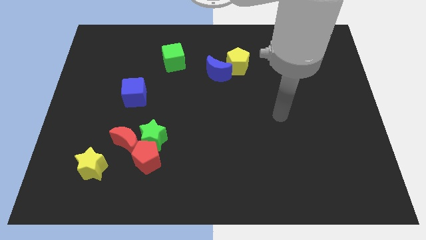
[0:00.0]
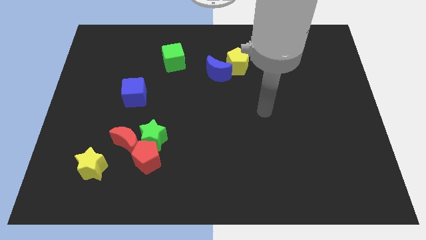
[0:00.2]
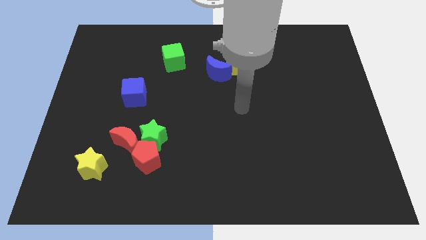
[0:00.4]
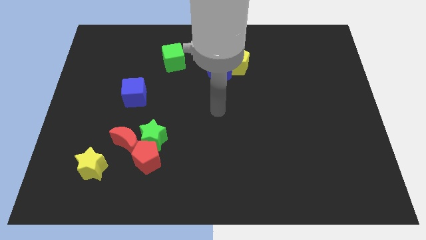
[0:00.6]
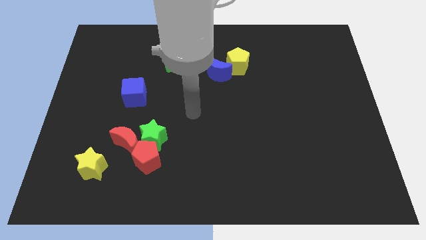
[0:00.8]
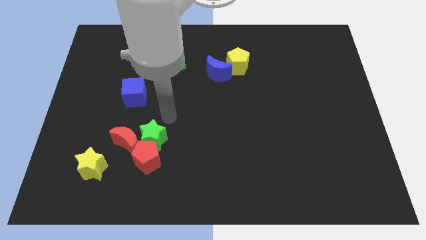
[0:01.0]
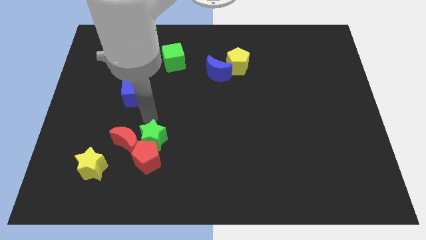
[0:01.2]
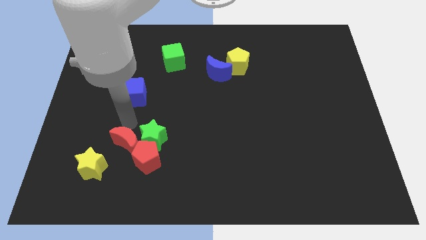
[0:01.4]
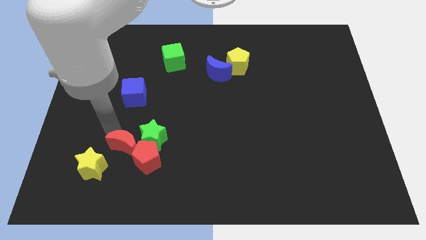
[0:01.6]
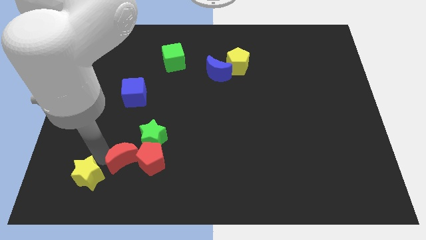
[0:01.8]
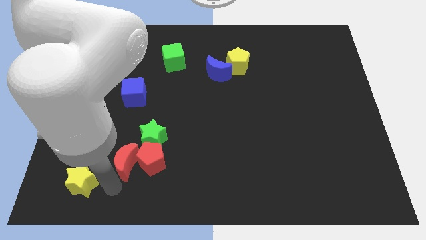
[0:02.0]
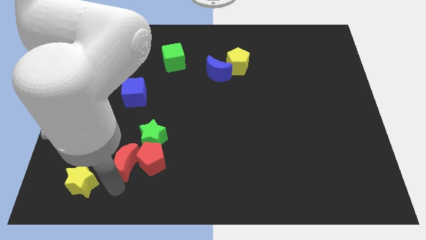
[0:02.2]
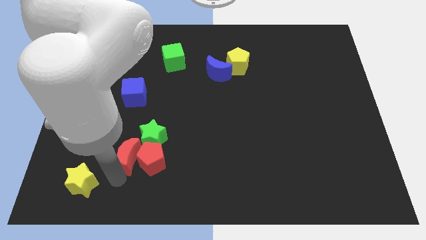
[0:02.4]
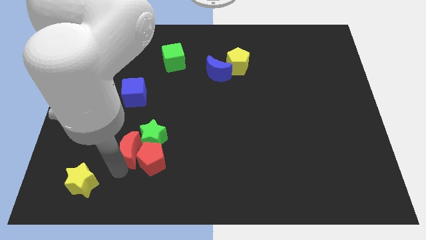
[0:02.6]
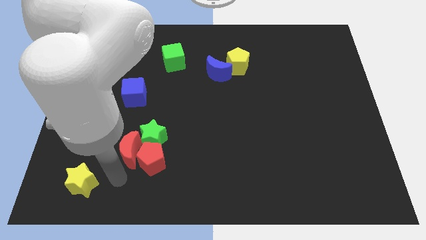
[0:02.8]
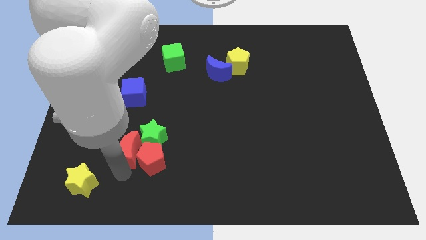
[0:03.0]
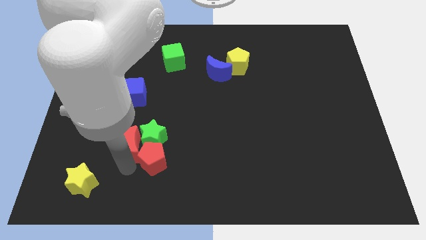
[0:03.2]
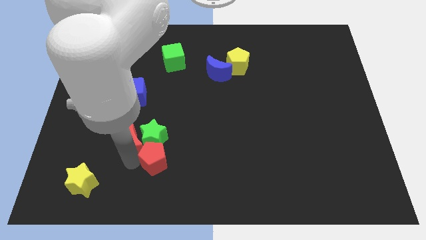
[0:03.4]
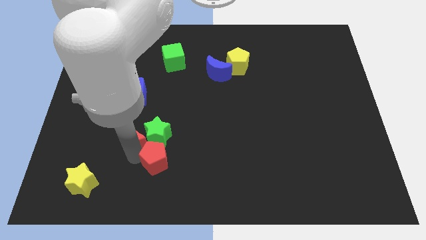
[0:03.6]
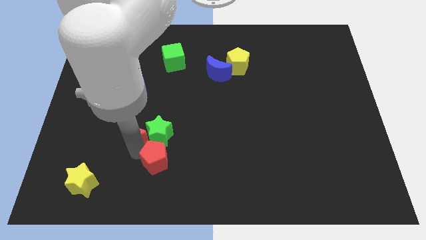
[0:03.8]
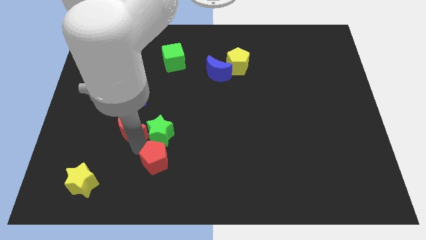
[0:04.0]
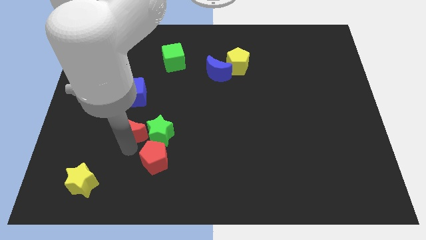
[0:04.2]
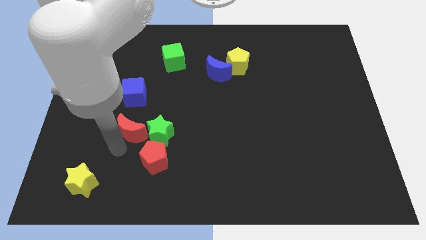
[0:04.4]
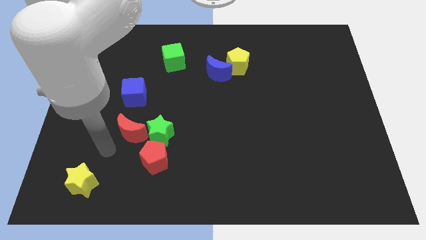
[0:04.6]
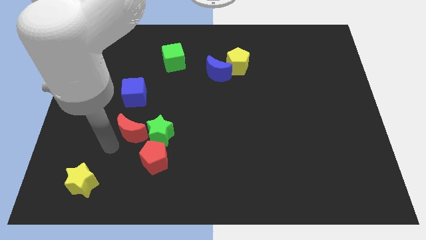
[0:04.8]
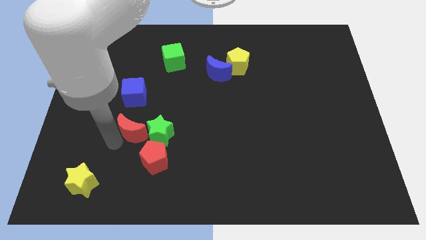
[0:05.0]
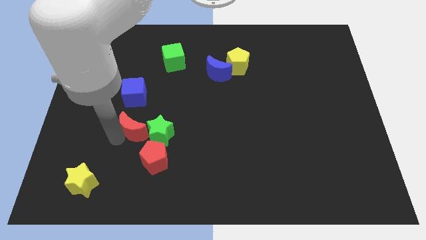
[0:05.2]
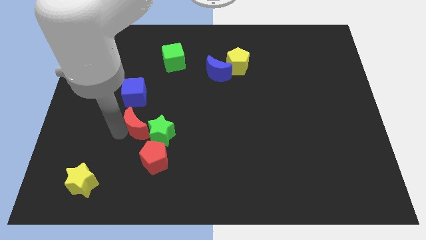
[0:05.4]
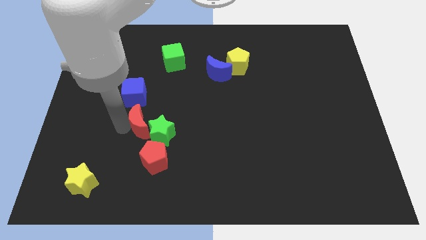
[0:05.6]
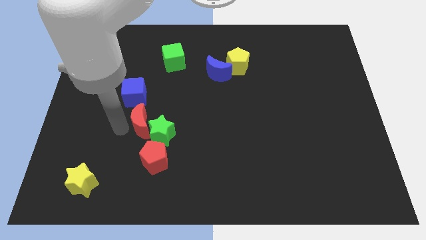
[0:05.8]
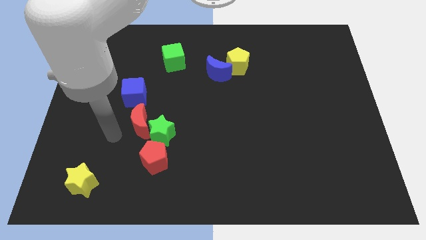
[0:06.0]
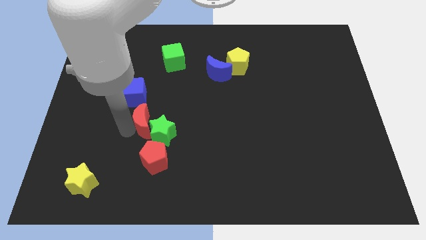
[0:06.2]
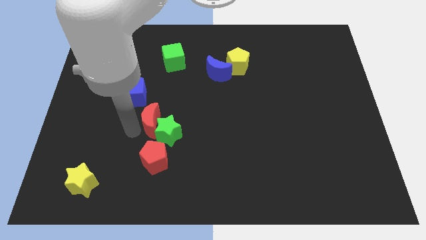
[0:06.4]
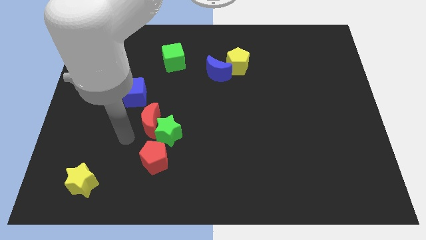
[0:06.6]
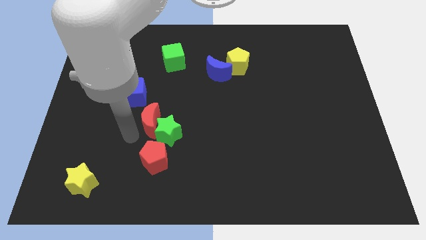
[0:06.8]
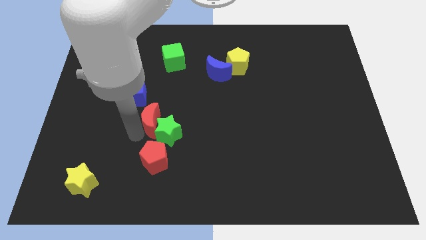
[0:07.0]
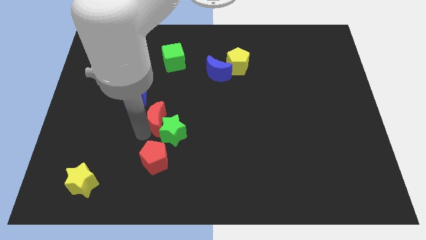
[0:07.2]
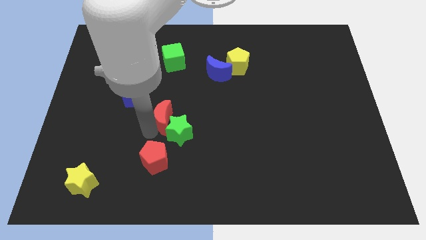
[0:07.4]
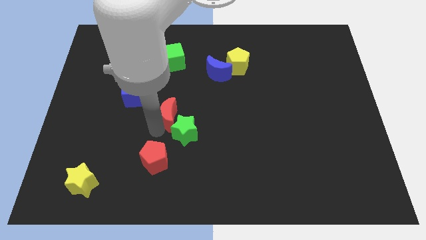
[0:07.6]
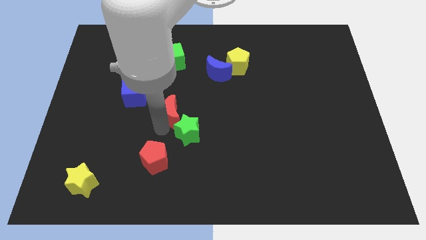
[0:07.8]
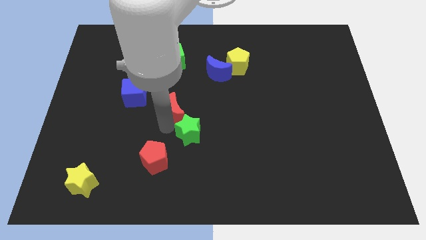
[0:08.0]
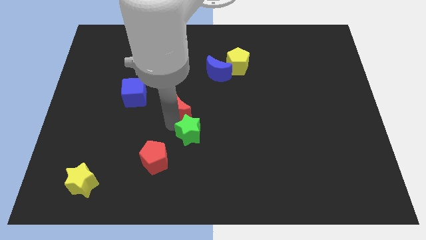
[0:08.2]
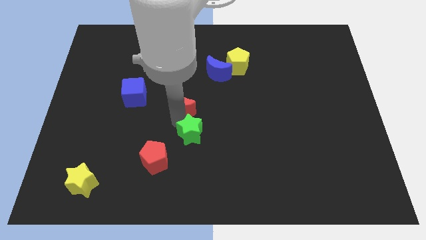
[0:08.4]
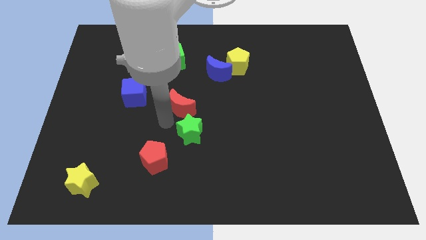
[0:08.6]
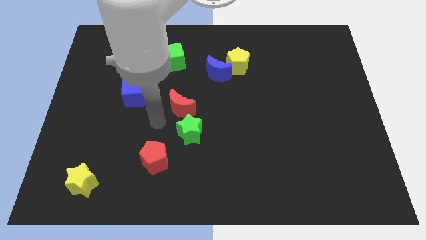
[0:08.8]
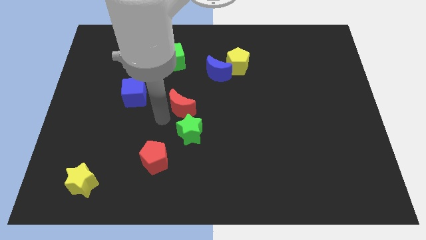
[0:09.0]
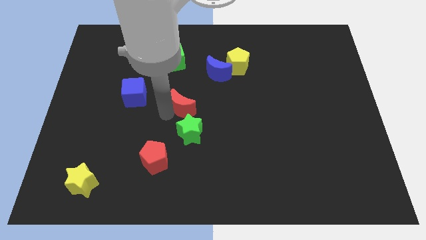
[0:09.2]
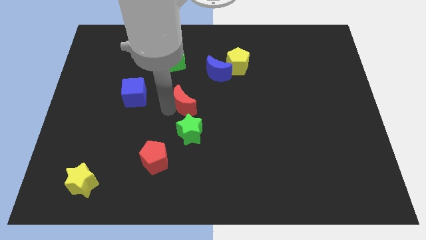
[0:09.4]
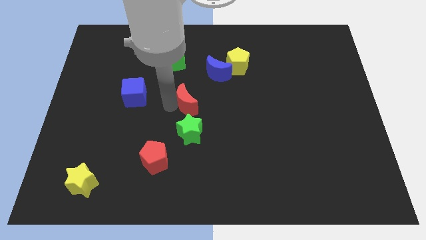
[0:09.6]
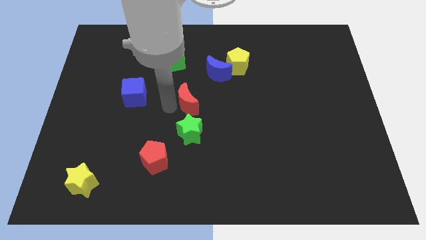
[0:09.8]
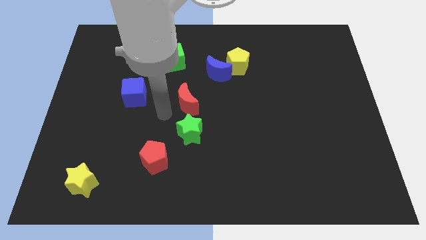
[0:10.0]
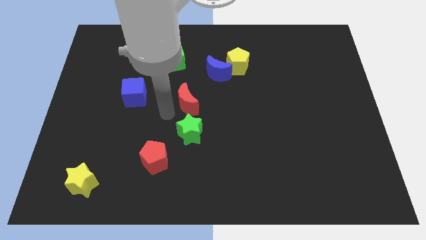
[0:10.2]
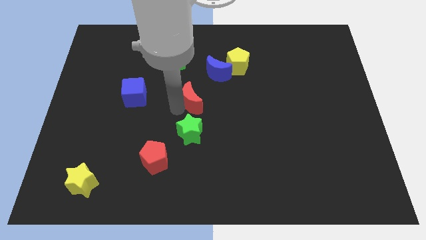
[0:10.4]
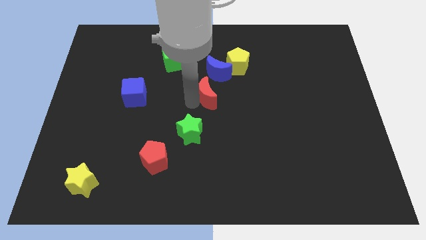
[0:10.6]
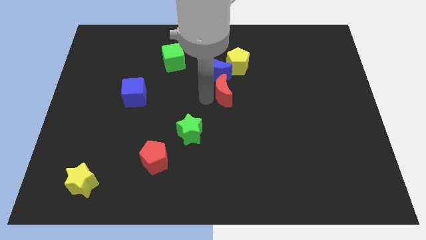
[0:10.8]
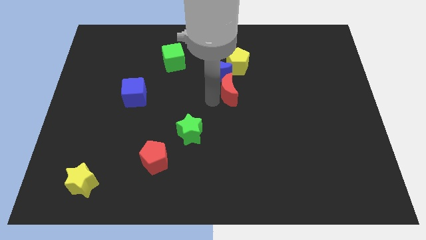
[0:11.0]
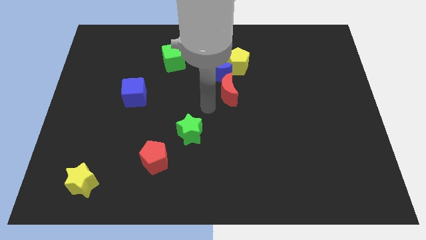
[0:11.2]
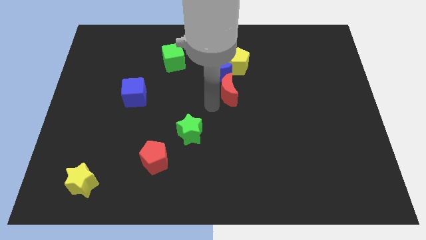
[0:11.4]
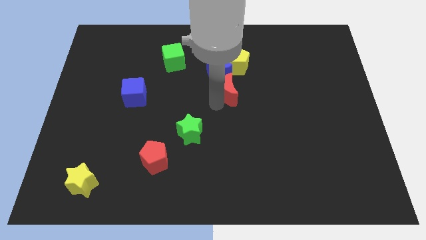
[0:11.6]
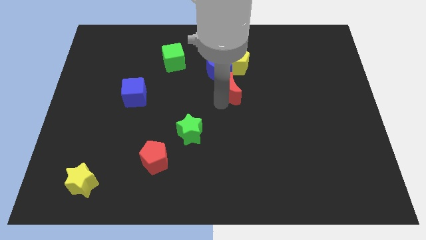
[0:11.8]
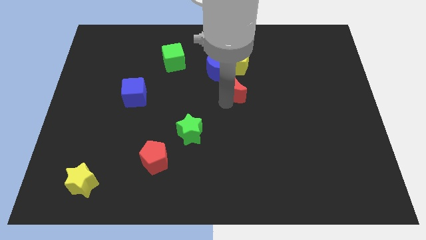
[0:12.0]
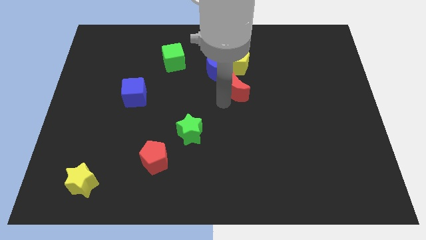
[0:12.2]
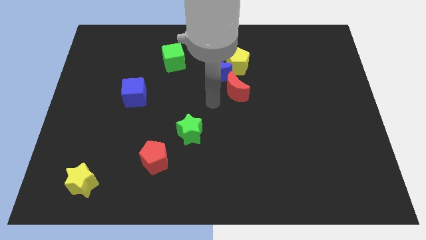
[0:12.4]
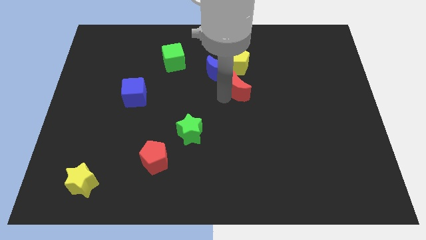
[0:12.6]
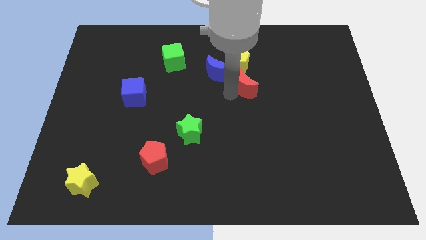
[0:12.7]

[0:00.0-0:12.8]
push the red moon diagonally down and to the right of the yellow pentagon

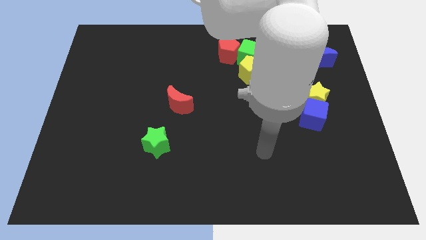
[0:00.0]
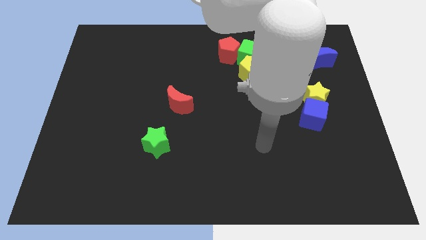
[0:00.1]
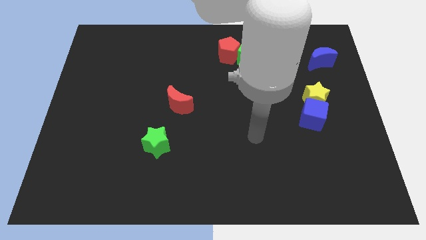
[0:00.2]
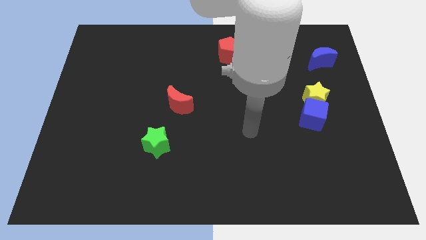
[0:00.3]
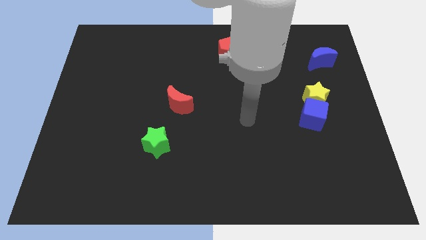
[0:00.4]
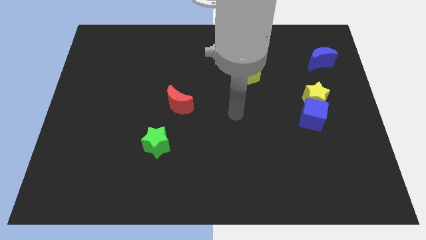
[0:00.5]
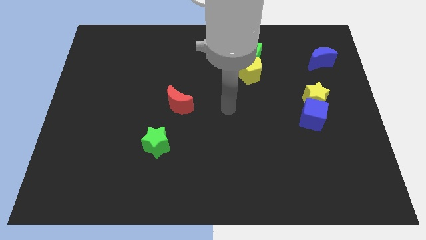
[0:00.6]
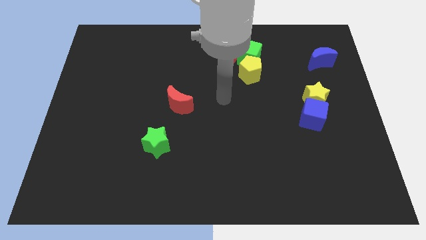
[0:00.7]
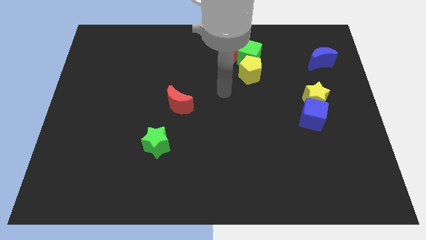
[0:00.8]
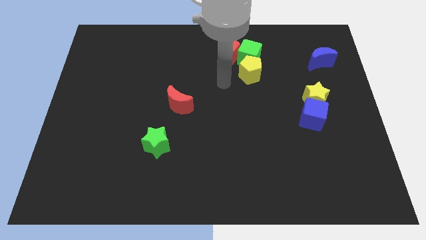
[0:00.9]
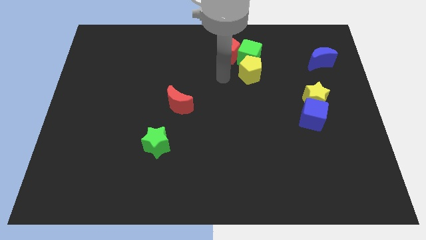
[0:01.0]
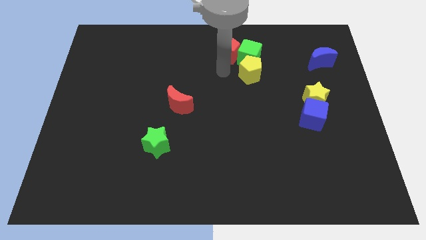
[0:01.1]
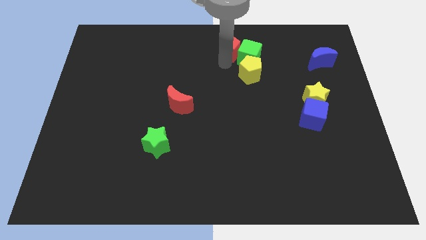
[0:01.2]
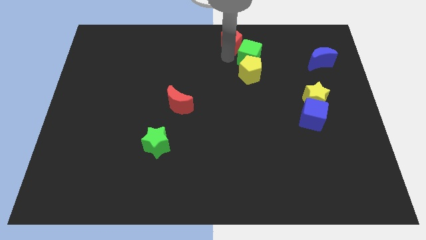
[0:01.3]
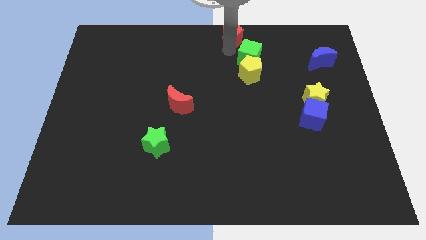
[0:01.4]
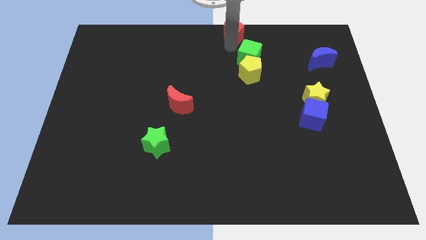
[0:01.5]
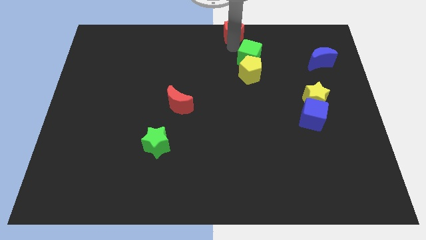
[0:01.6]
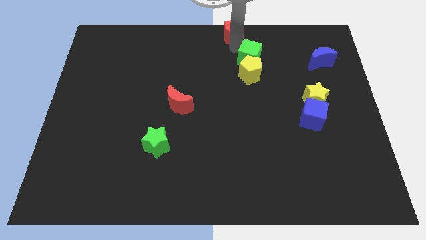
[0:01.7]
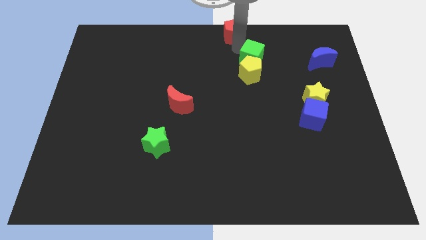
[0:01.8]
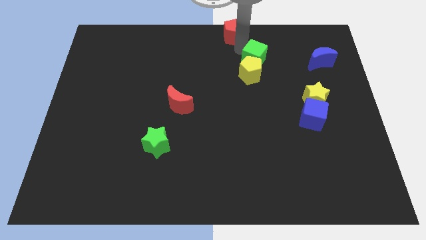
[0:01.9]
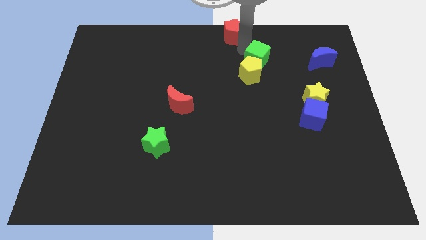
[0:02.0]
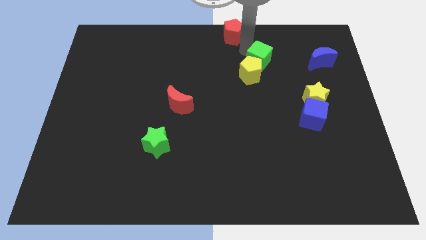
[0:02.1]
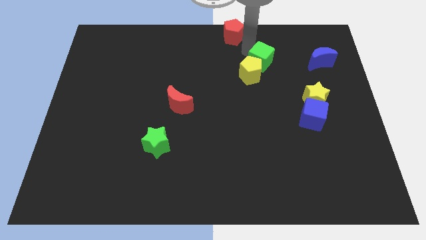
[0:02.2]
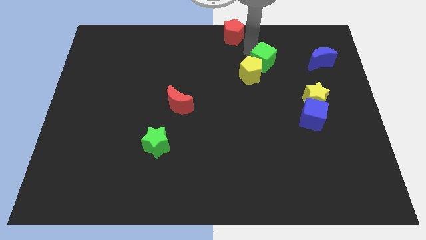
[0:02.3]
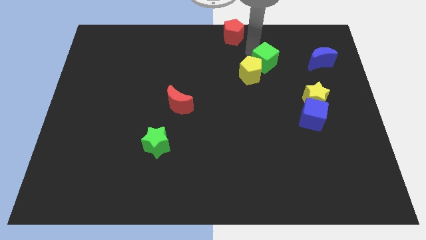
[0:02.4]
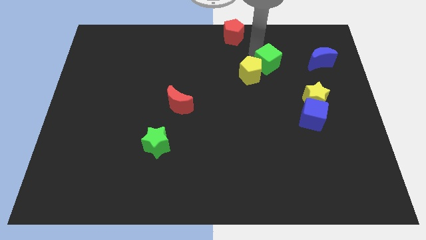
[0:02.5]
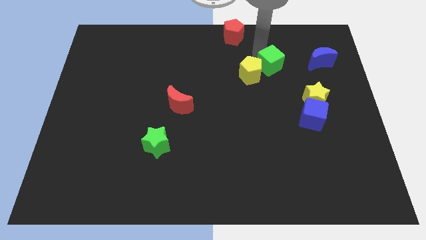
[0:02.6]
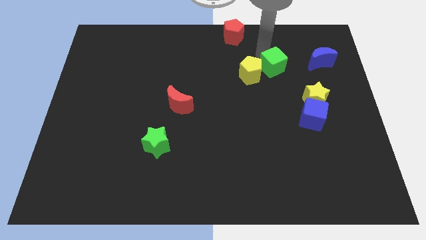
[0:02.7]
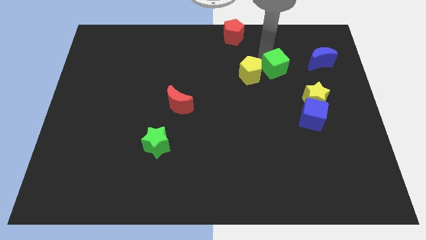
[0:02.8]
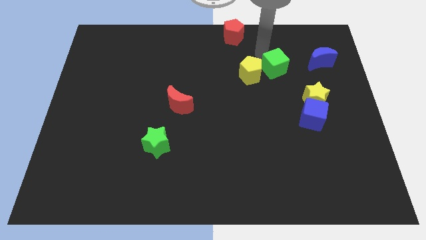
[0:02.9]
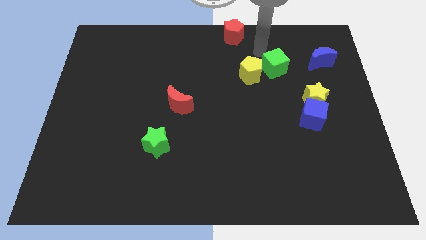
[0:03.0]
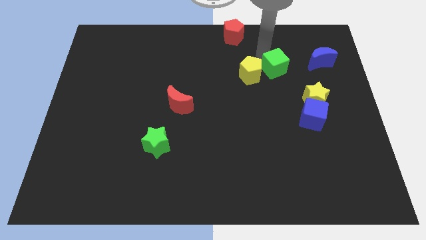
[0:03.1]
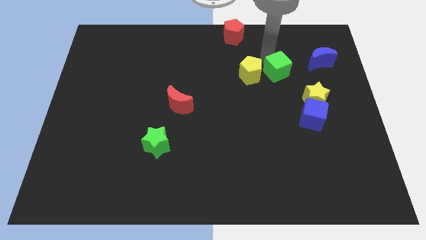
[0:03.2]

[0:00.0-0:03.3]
push the green cube to the top left of the yellow star
